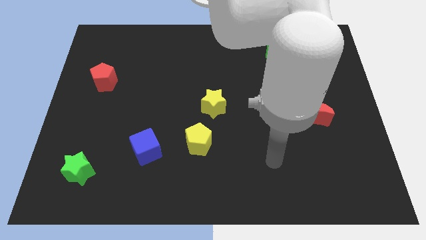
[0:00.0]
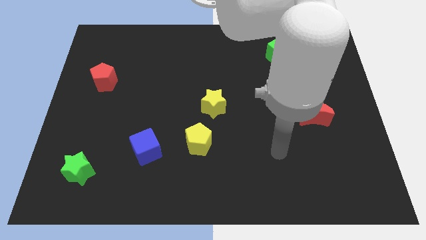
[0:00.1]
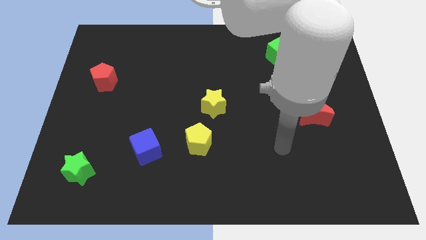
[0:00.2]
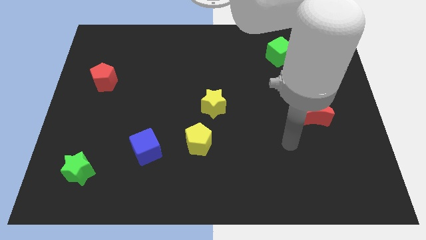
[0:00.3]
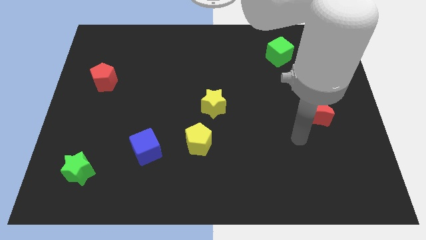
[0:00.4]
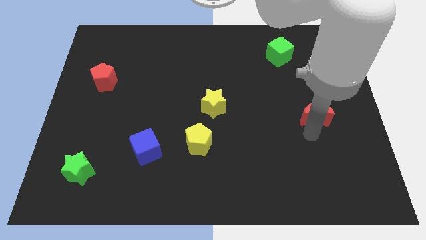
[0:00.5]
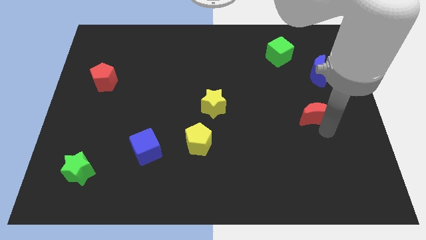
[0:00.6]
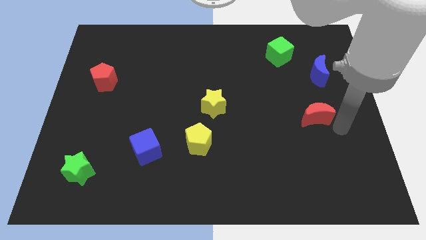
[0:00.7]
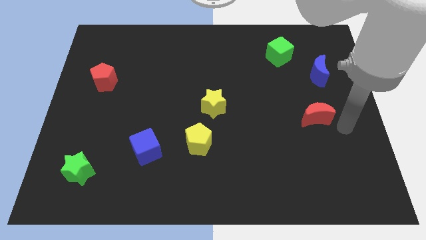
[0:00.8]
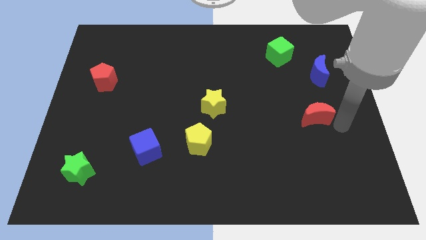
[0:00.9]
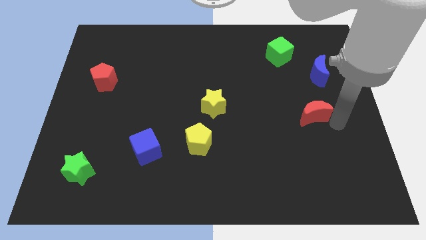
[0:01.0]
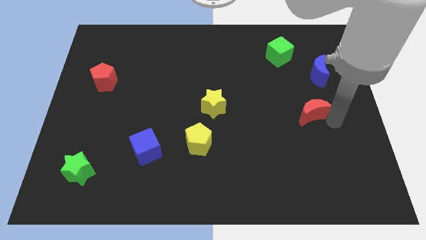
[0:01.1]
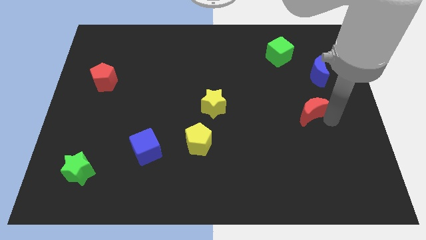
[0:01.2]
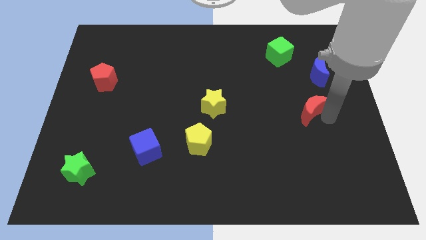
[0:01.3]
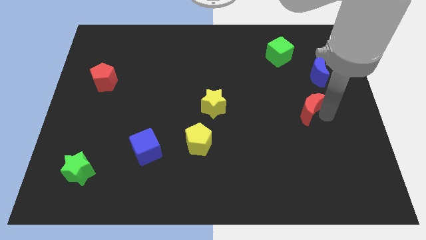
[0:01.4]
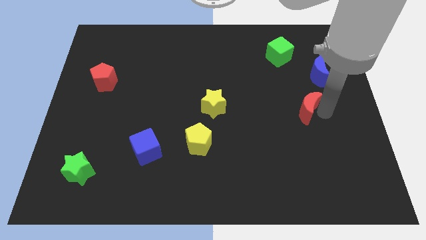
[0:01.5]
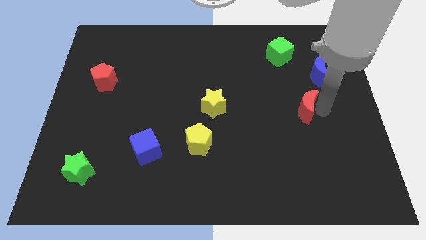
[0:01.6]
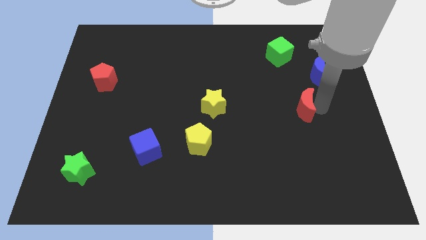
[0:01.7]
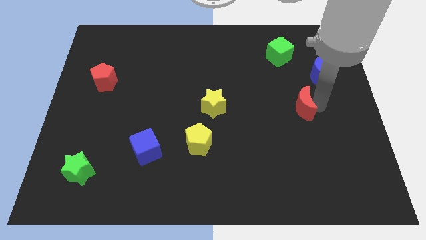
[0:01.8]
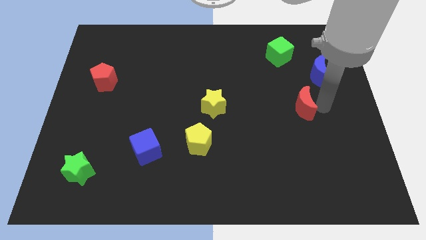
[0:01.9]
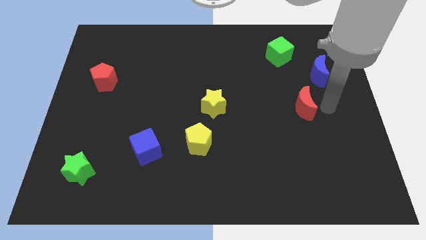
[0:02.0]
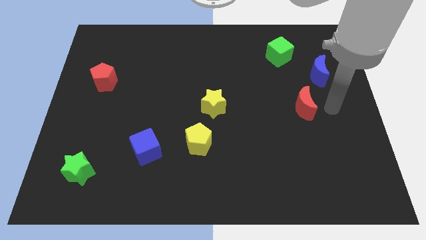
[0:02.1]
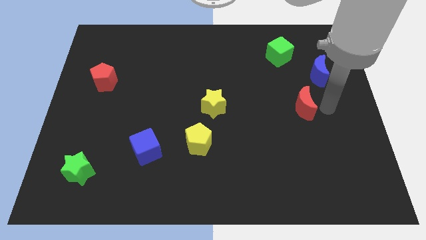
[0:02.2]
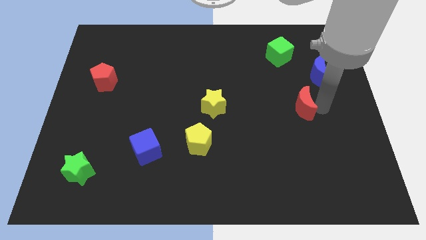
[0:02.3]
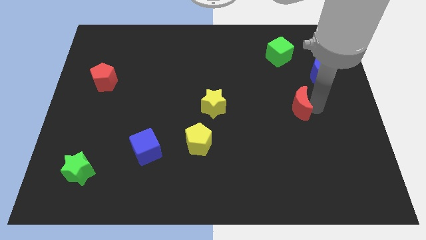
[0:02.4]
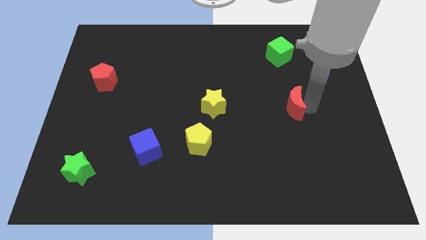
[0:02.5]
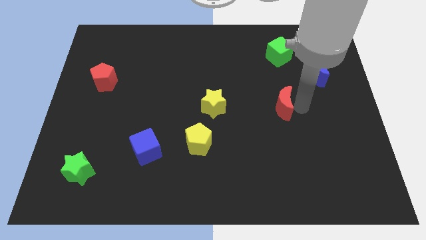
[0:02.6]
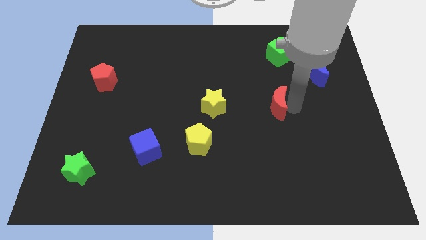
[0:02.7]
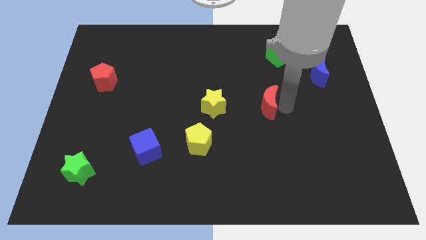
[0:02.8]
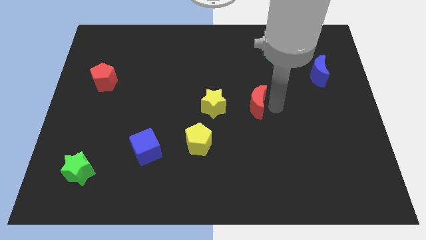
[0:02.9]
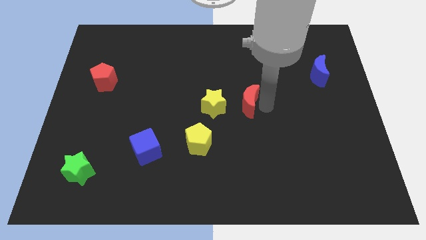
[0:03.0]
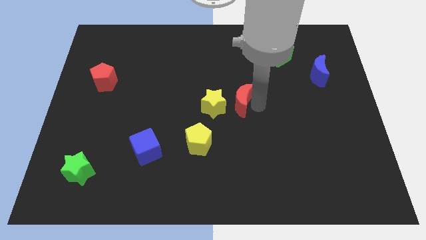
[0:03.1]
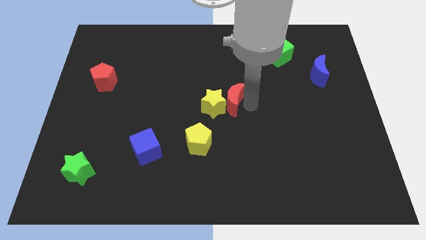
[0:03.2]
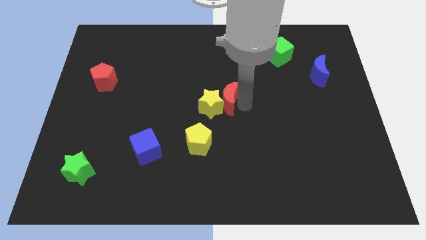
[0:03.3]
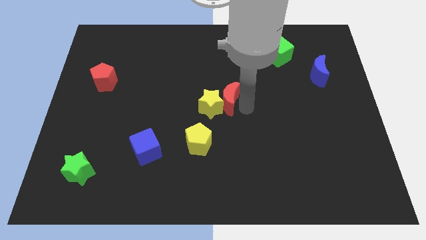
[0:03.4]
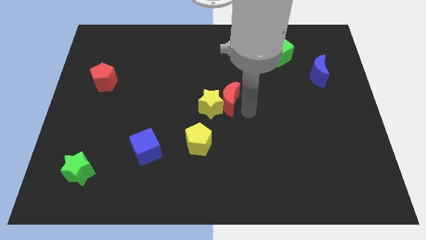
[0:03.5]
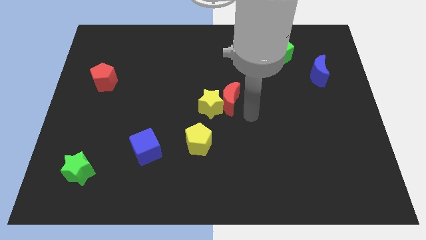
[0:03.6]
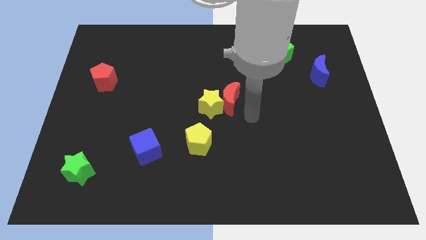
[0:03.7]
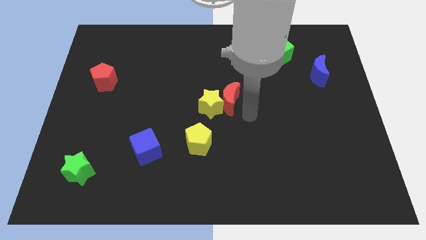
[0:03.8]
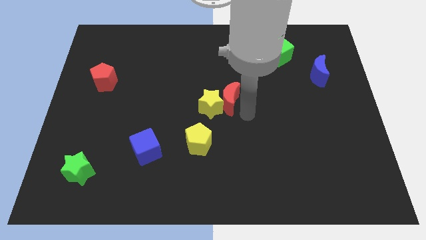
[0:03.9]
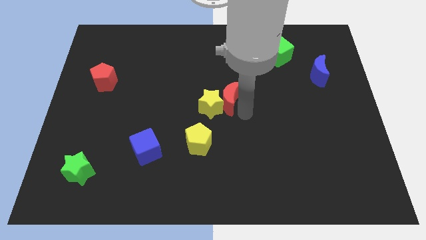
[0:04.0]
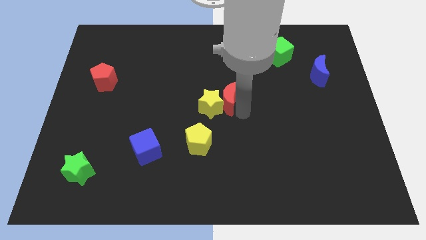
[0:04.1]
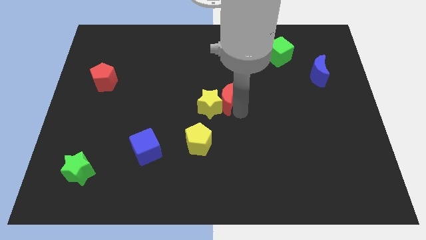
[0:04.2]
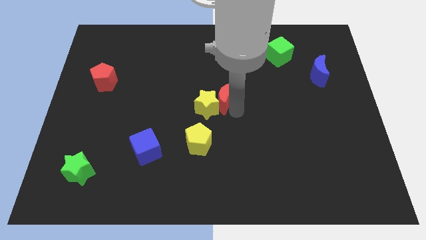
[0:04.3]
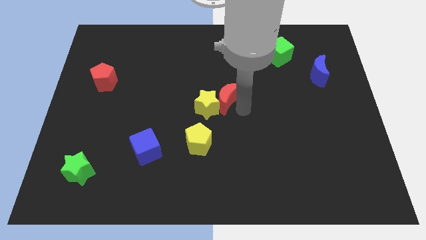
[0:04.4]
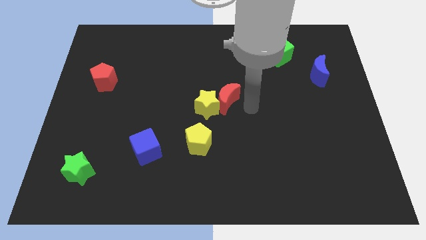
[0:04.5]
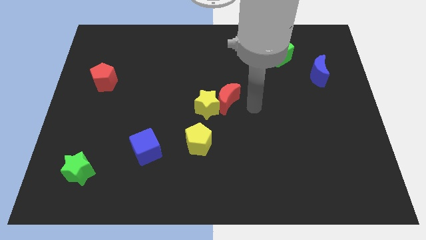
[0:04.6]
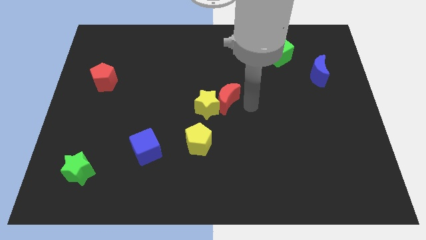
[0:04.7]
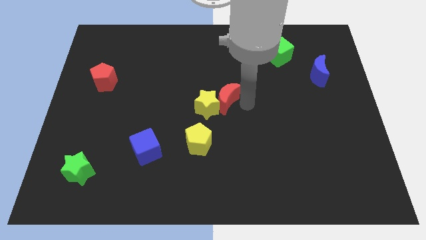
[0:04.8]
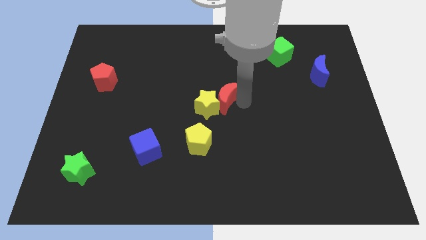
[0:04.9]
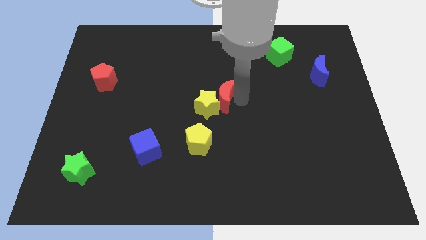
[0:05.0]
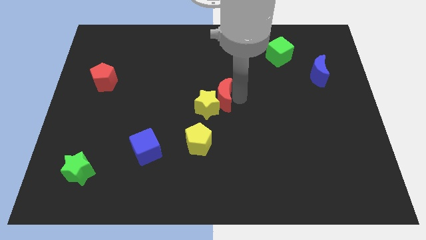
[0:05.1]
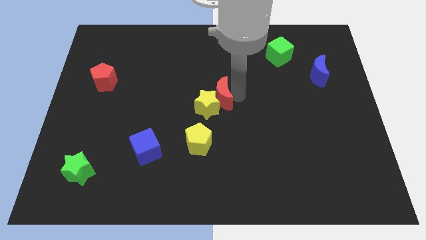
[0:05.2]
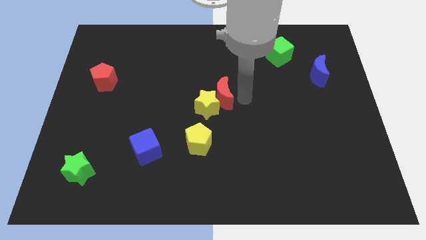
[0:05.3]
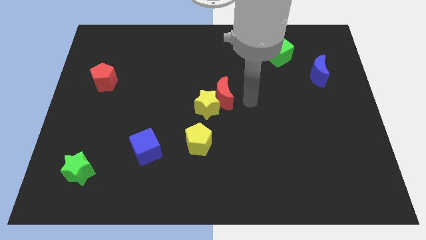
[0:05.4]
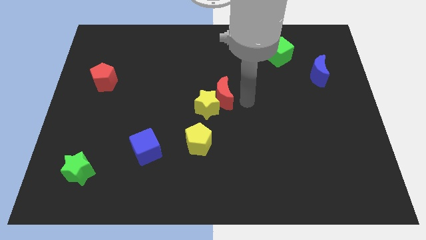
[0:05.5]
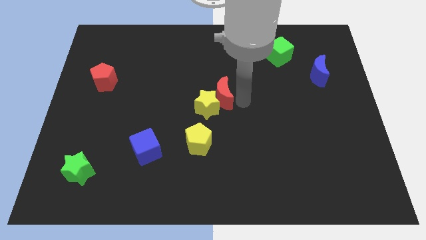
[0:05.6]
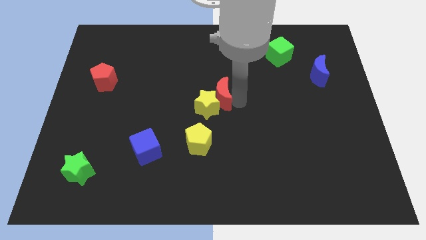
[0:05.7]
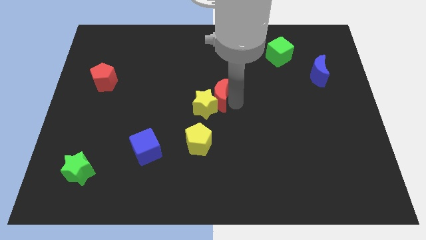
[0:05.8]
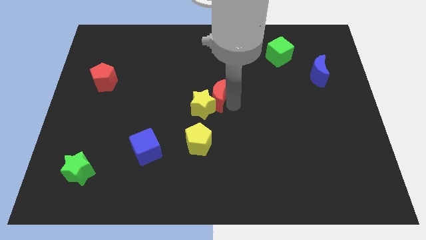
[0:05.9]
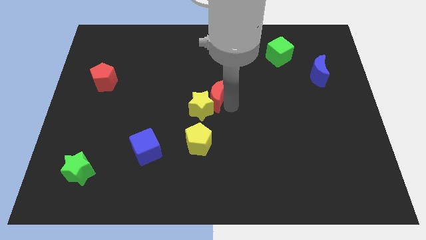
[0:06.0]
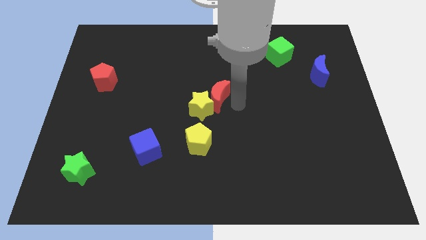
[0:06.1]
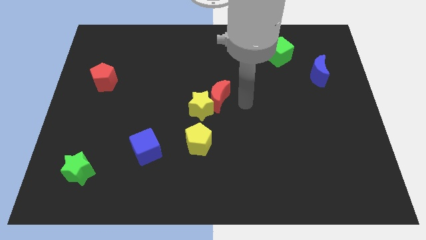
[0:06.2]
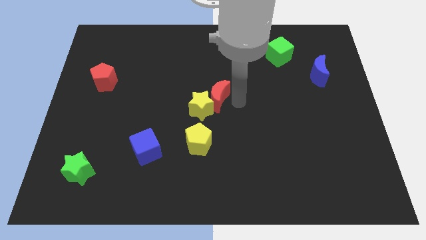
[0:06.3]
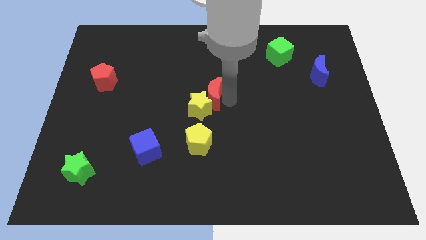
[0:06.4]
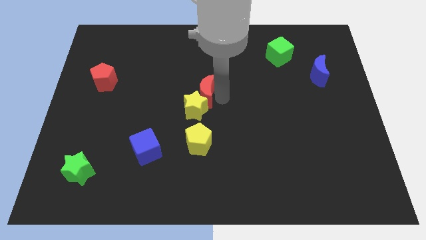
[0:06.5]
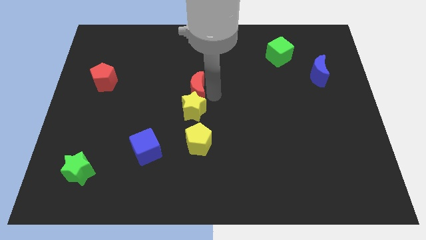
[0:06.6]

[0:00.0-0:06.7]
put the red moon to the top left of the yellow star
